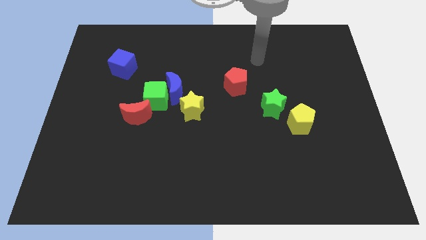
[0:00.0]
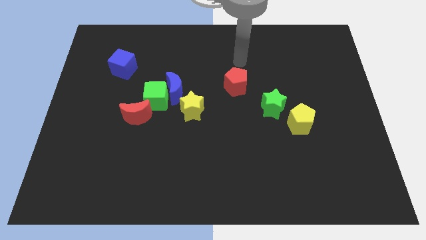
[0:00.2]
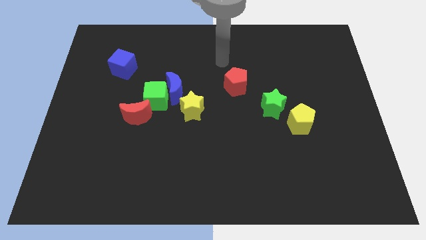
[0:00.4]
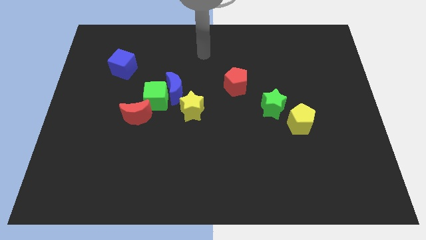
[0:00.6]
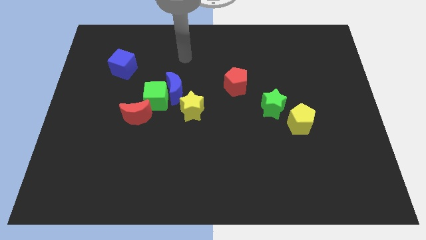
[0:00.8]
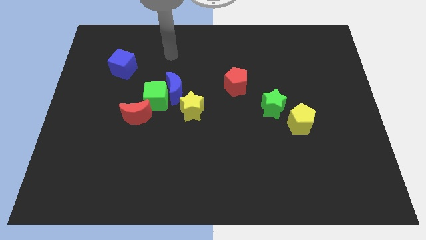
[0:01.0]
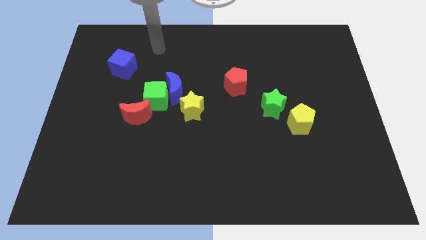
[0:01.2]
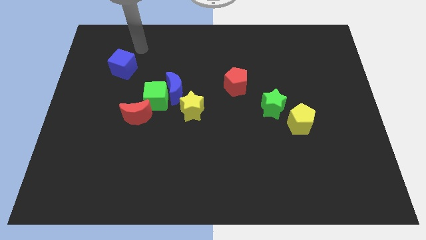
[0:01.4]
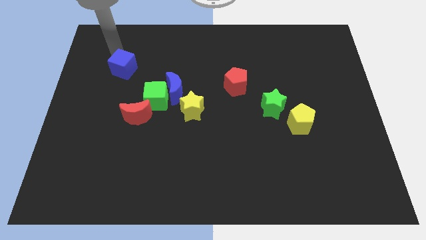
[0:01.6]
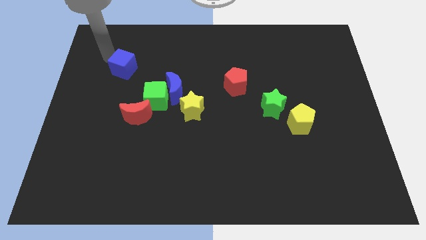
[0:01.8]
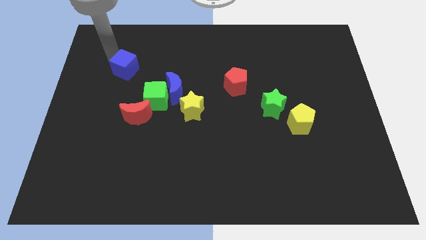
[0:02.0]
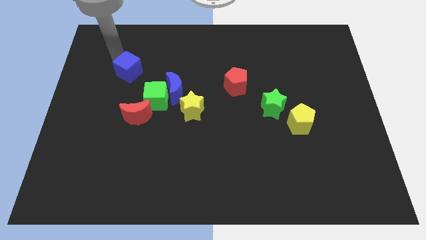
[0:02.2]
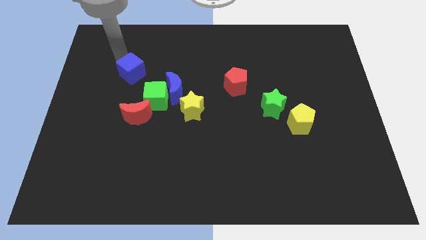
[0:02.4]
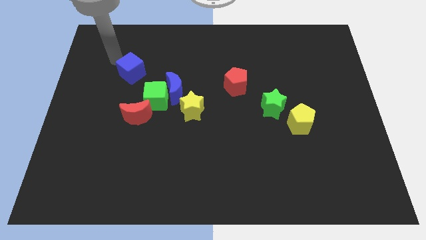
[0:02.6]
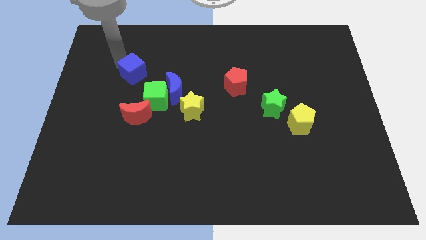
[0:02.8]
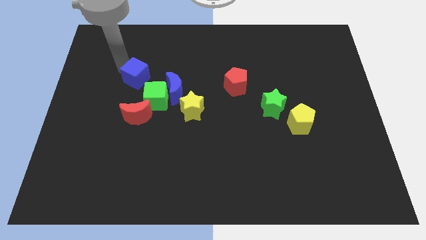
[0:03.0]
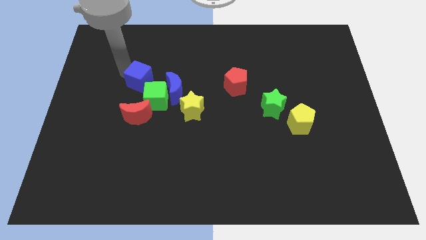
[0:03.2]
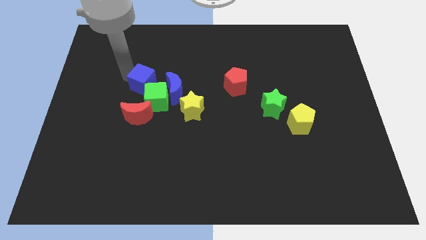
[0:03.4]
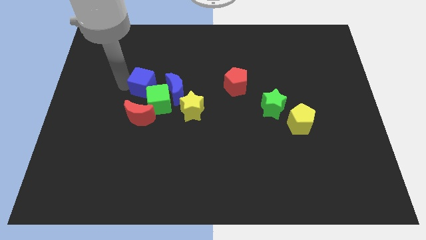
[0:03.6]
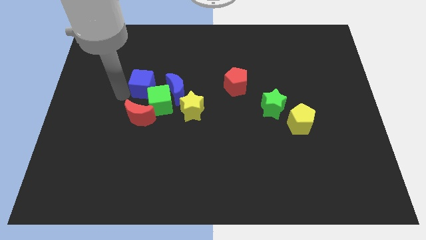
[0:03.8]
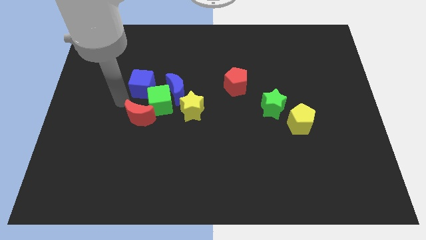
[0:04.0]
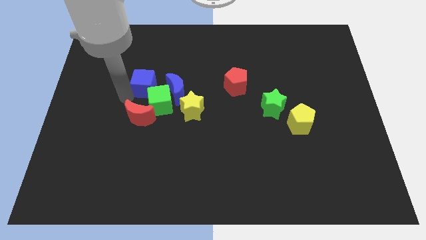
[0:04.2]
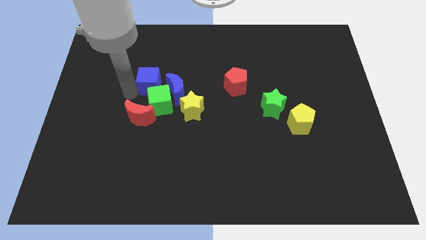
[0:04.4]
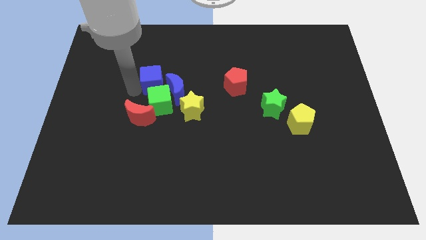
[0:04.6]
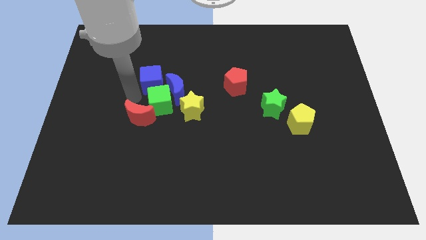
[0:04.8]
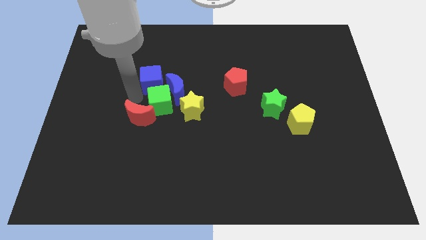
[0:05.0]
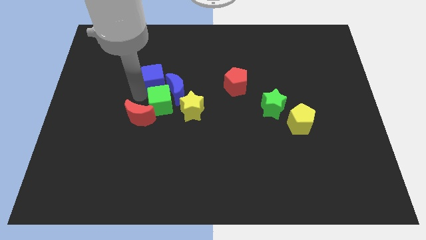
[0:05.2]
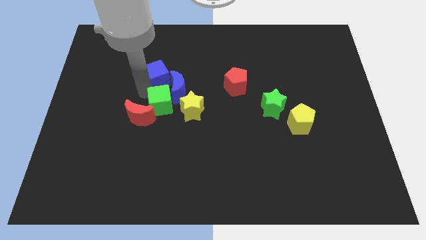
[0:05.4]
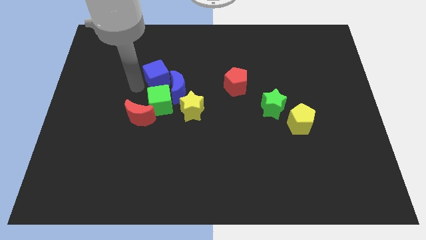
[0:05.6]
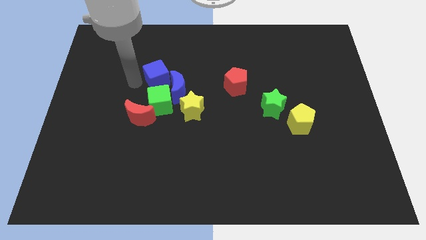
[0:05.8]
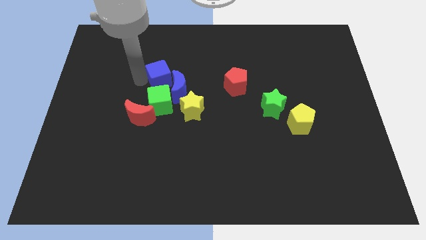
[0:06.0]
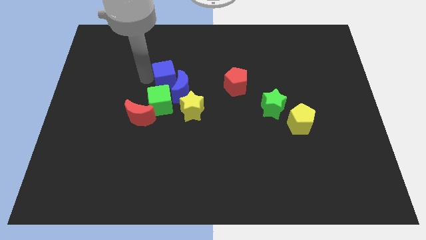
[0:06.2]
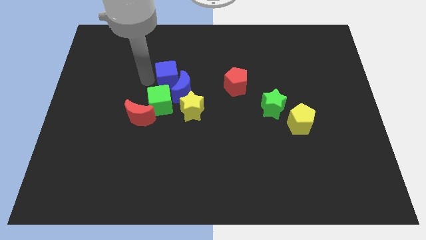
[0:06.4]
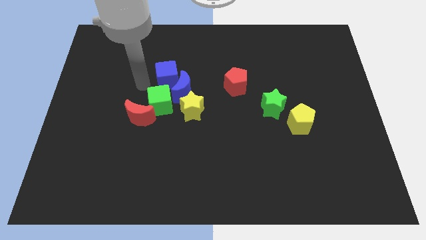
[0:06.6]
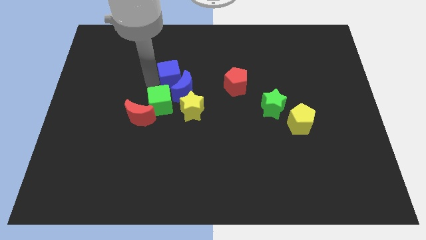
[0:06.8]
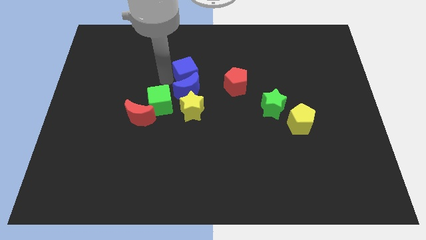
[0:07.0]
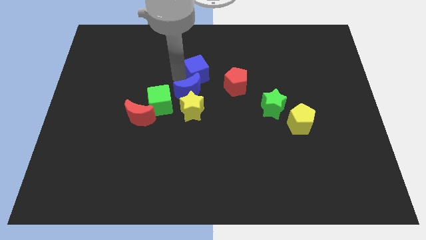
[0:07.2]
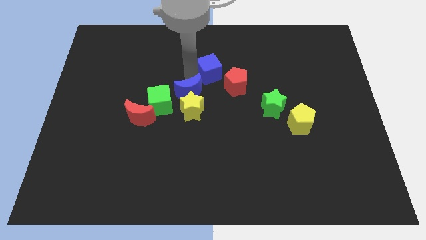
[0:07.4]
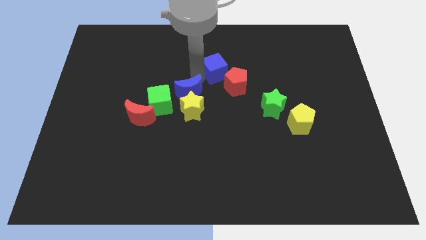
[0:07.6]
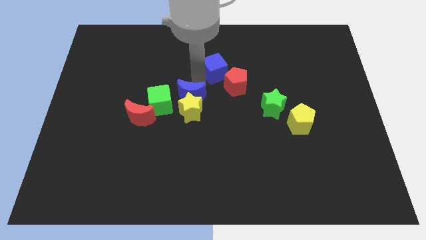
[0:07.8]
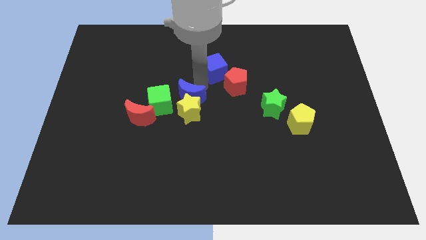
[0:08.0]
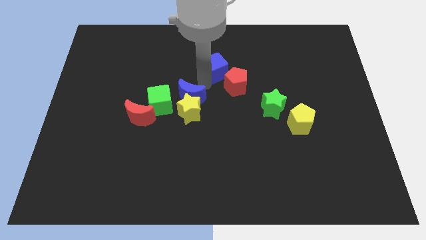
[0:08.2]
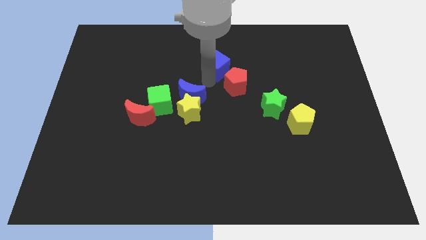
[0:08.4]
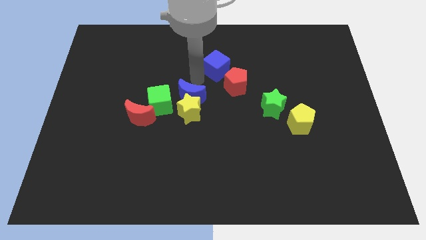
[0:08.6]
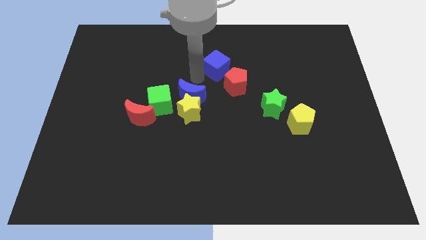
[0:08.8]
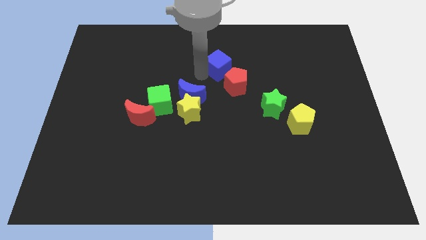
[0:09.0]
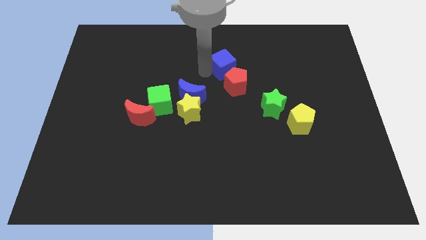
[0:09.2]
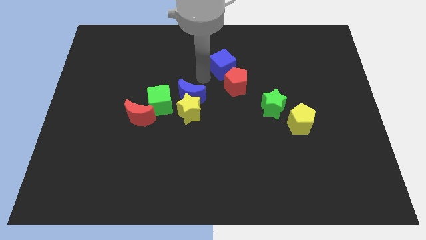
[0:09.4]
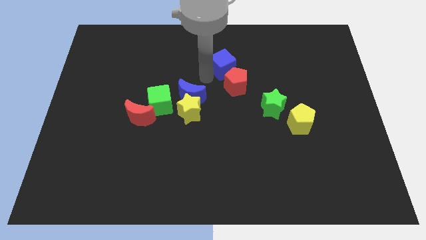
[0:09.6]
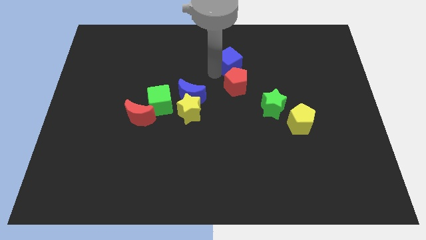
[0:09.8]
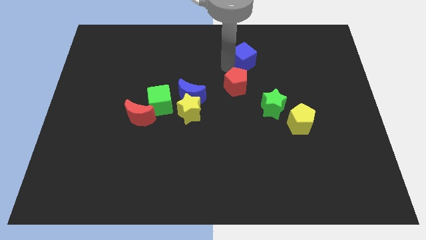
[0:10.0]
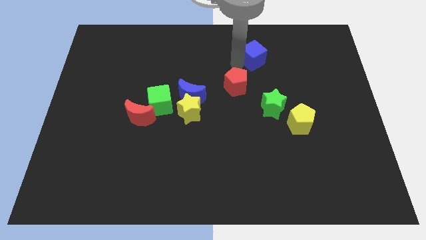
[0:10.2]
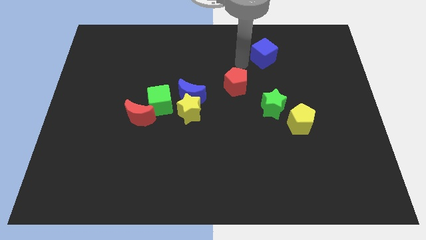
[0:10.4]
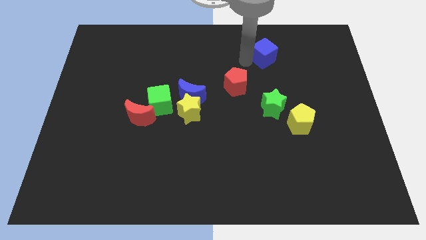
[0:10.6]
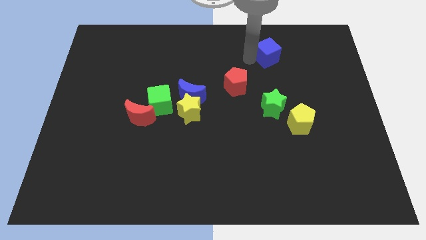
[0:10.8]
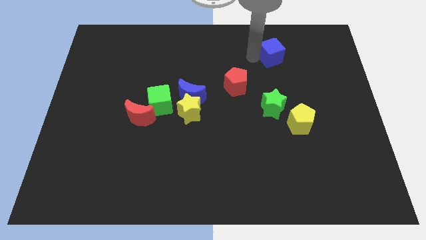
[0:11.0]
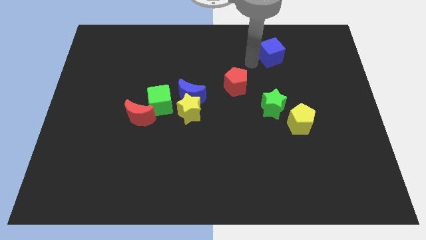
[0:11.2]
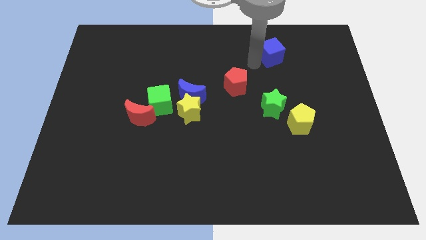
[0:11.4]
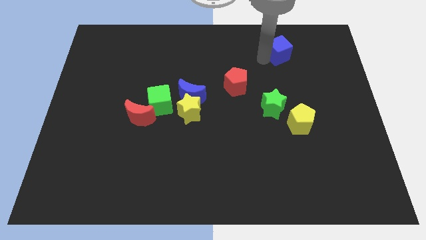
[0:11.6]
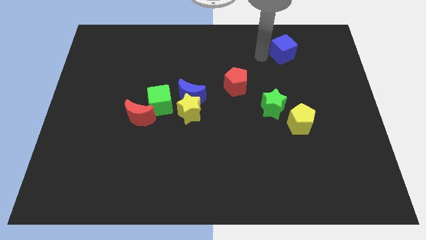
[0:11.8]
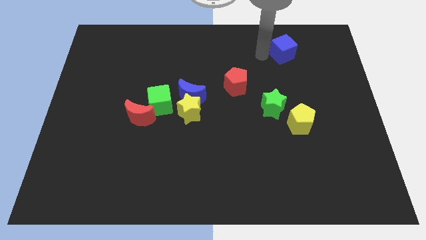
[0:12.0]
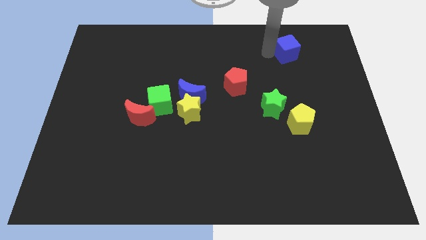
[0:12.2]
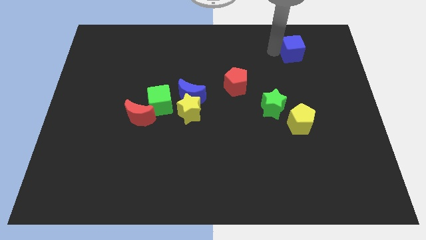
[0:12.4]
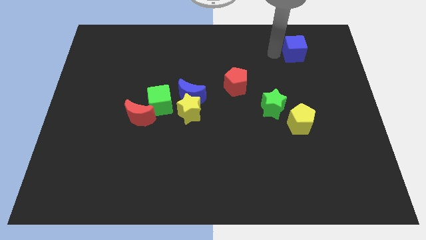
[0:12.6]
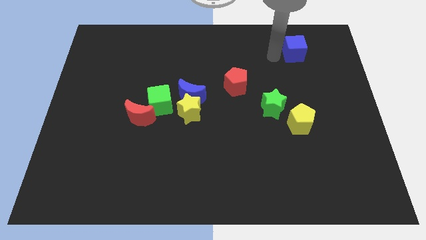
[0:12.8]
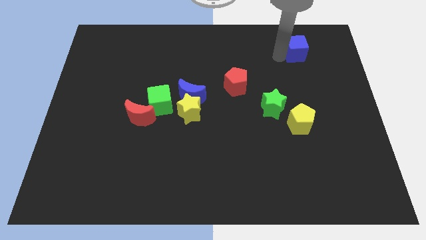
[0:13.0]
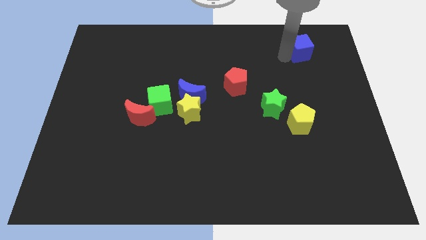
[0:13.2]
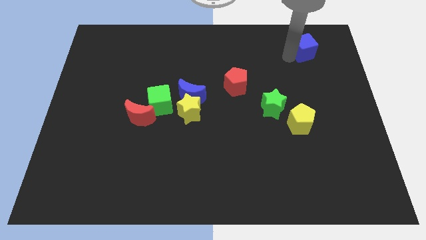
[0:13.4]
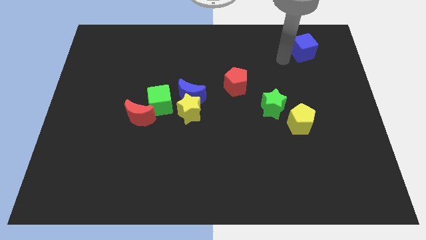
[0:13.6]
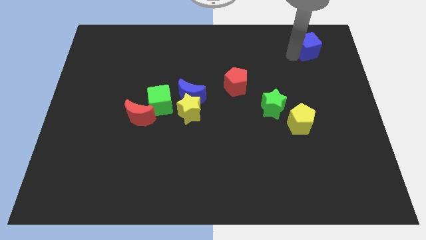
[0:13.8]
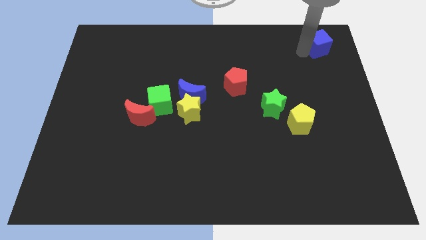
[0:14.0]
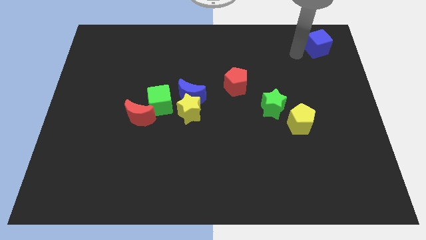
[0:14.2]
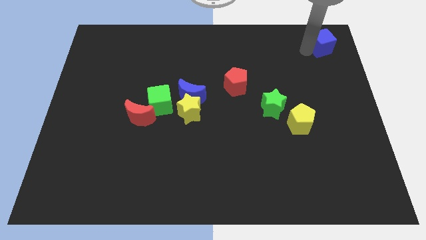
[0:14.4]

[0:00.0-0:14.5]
move the blue cube to the top right
